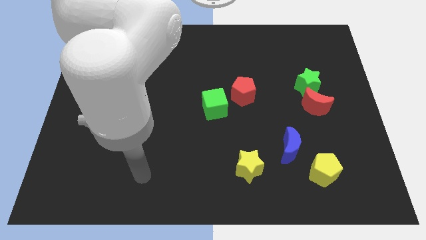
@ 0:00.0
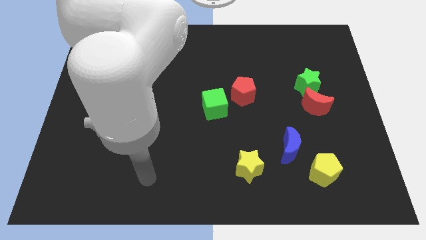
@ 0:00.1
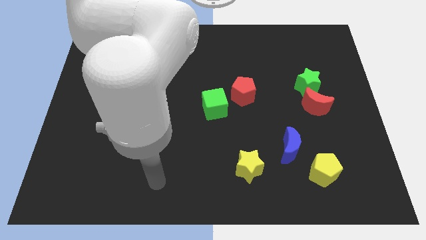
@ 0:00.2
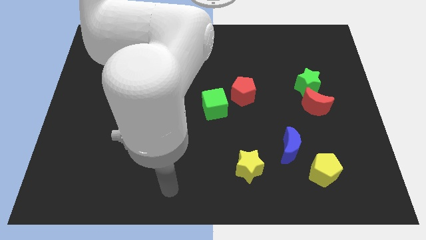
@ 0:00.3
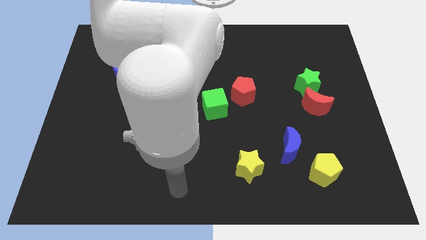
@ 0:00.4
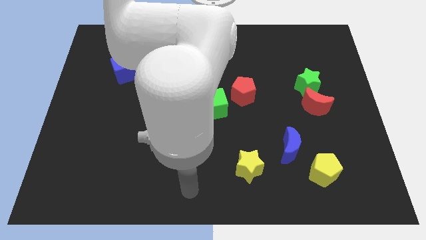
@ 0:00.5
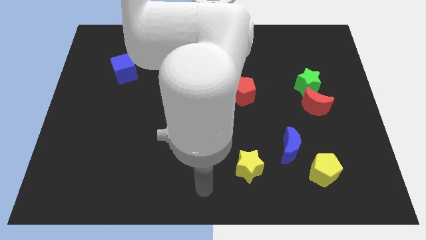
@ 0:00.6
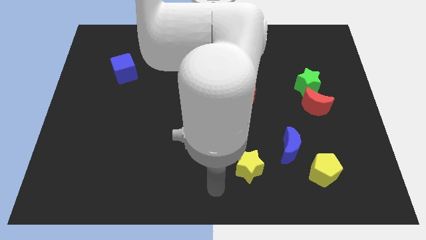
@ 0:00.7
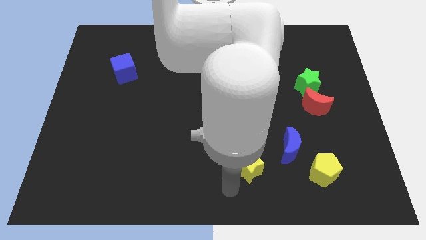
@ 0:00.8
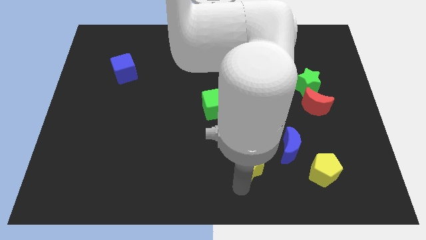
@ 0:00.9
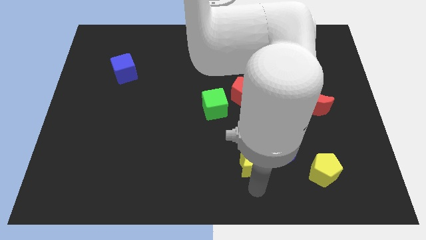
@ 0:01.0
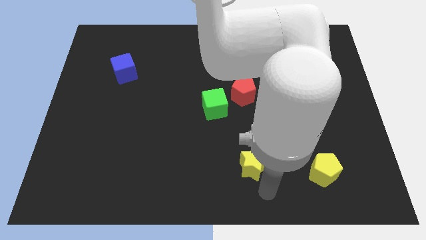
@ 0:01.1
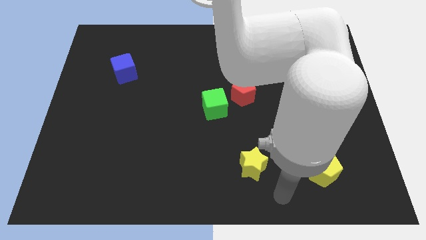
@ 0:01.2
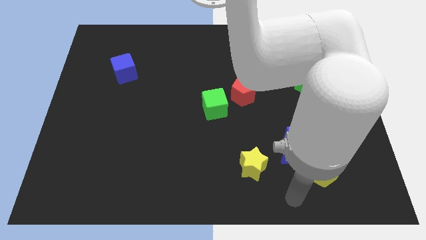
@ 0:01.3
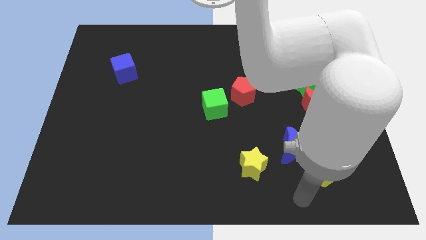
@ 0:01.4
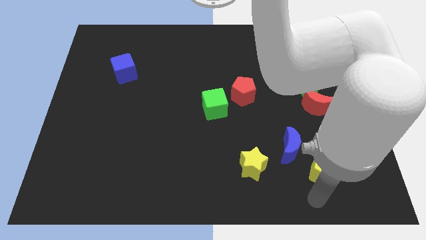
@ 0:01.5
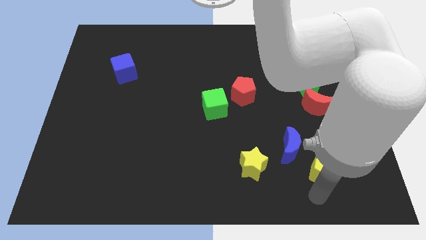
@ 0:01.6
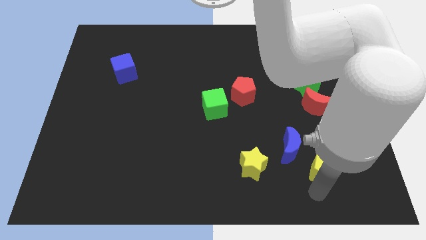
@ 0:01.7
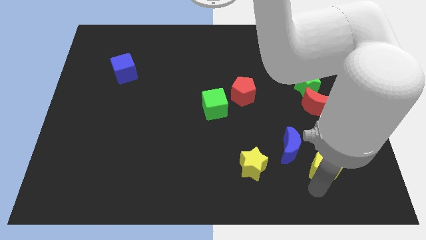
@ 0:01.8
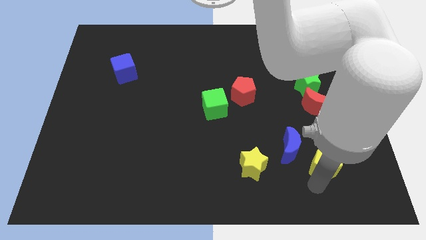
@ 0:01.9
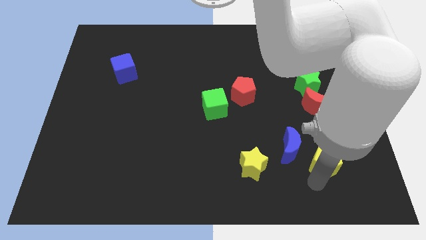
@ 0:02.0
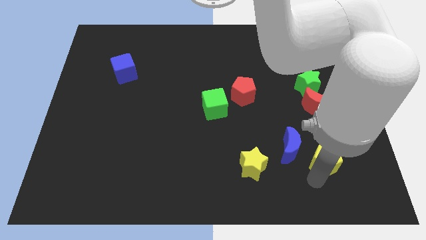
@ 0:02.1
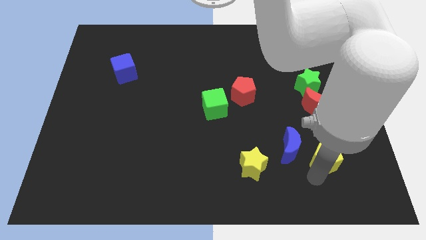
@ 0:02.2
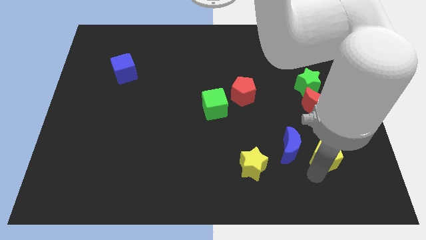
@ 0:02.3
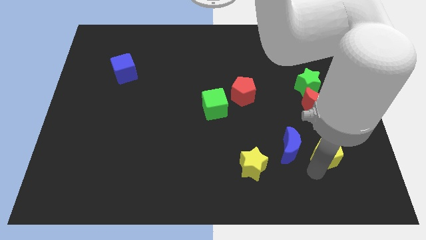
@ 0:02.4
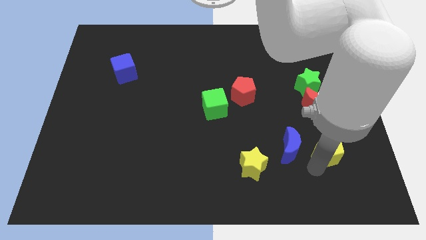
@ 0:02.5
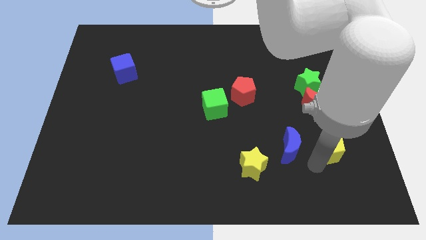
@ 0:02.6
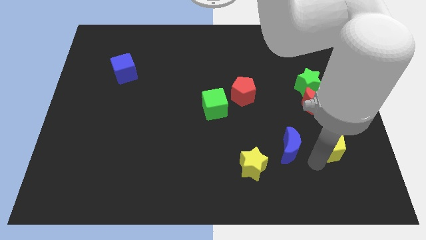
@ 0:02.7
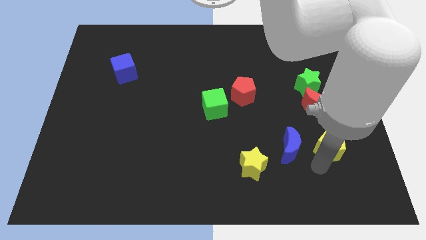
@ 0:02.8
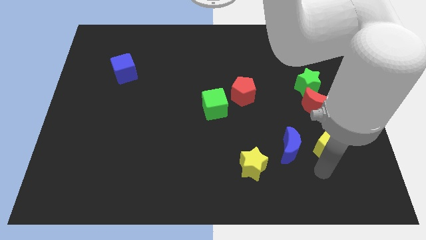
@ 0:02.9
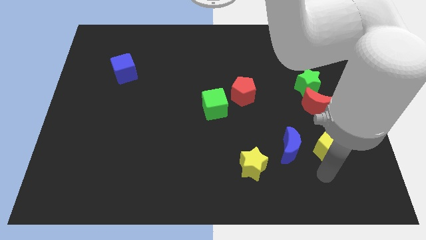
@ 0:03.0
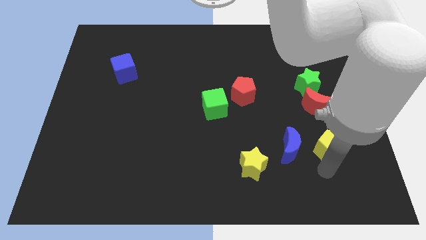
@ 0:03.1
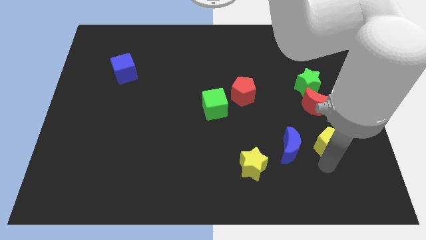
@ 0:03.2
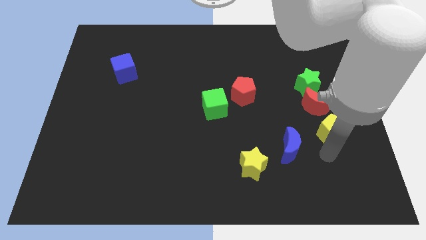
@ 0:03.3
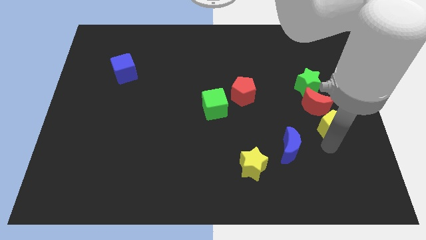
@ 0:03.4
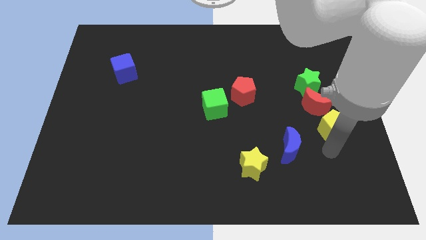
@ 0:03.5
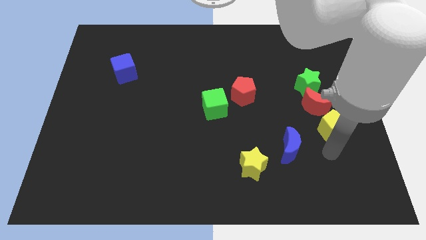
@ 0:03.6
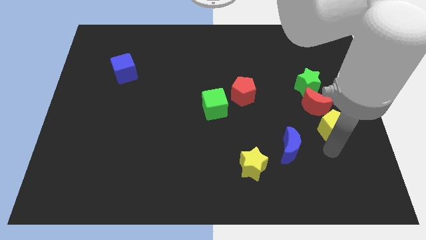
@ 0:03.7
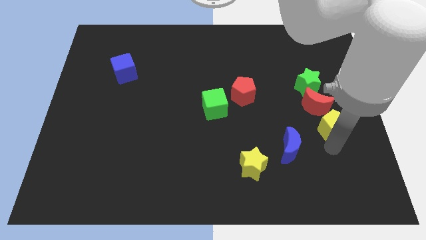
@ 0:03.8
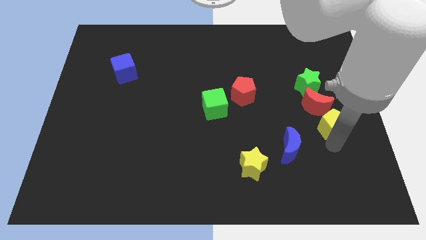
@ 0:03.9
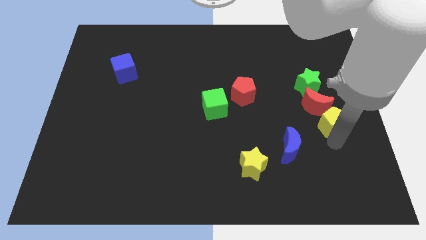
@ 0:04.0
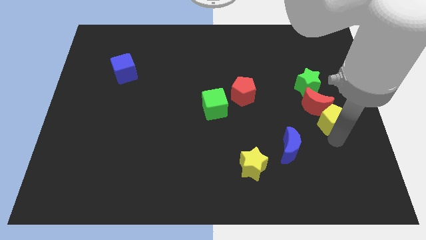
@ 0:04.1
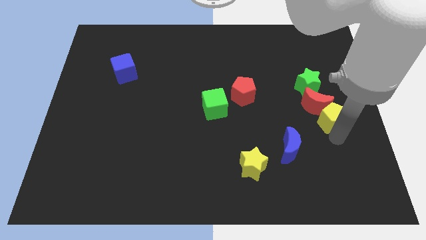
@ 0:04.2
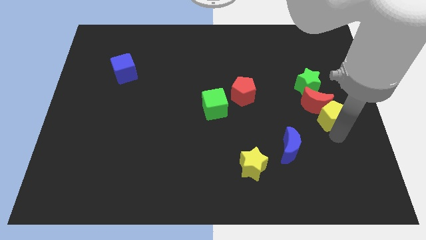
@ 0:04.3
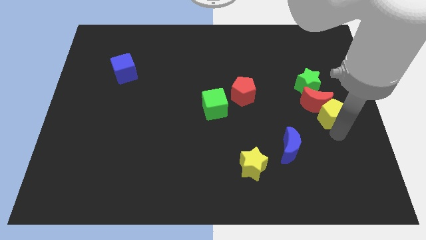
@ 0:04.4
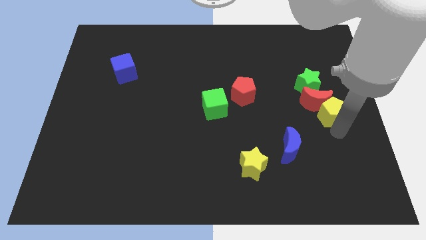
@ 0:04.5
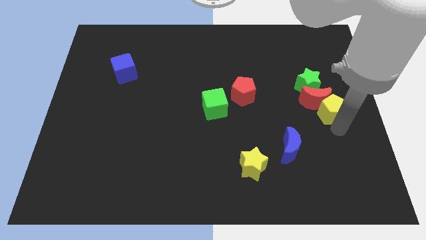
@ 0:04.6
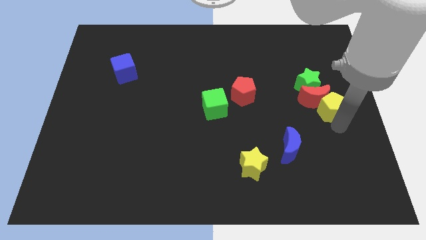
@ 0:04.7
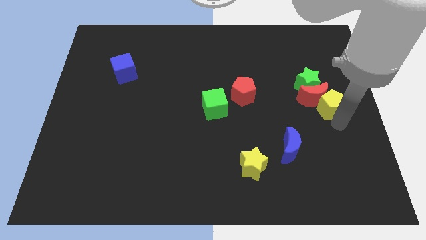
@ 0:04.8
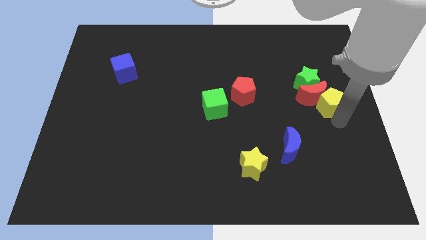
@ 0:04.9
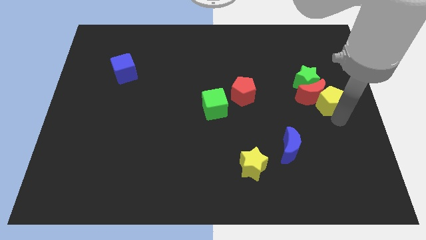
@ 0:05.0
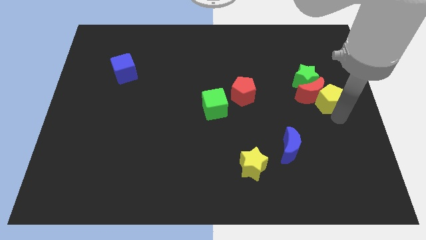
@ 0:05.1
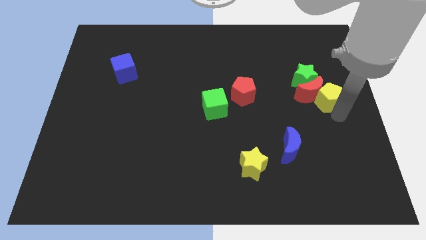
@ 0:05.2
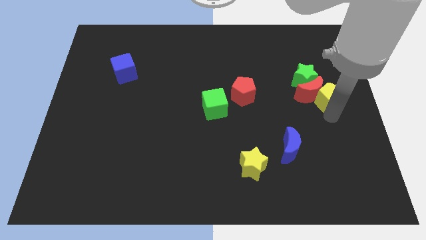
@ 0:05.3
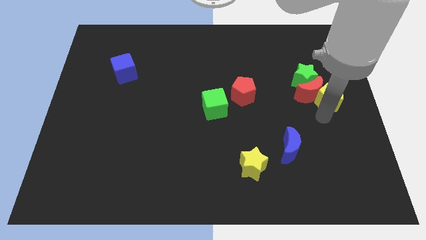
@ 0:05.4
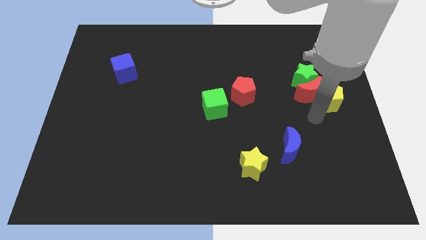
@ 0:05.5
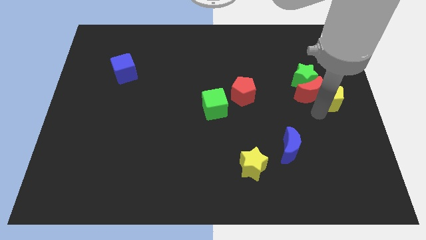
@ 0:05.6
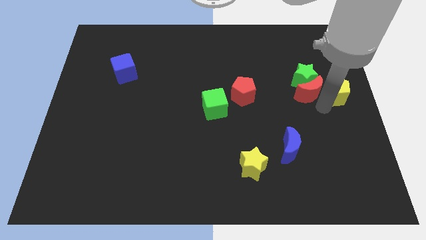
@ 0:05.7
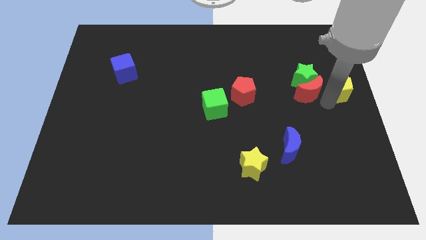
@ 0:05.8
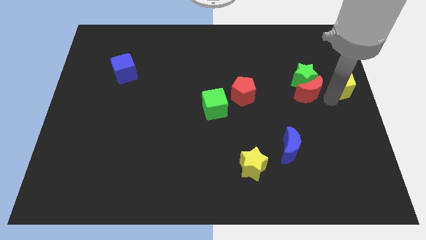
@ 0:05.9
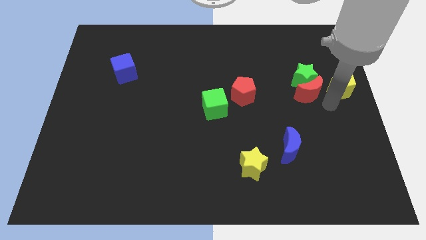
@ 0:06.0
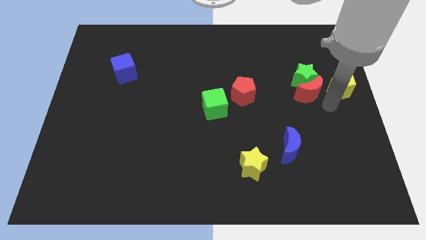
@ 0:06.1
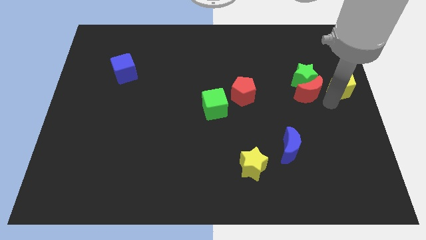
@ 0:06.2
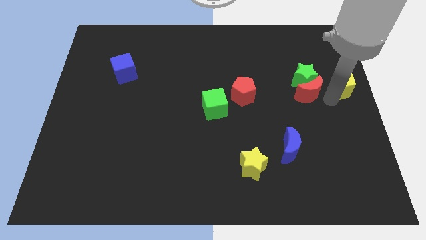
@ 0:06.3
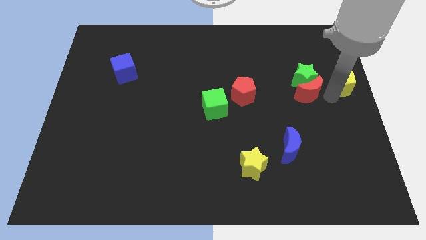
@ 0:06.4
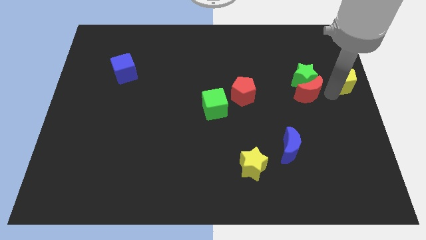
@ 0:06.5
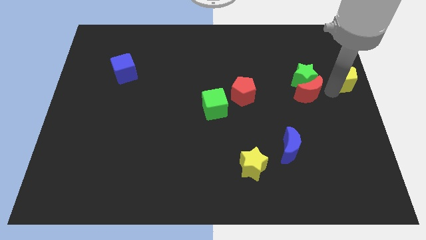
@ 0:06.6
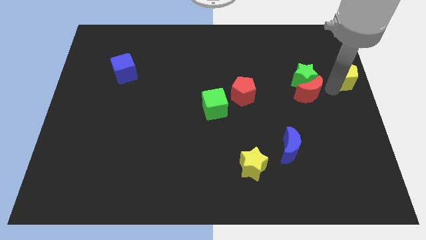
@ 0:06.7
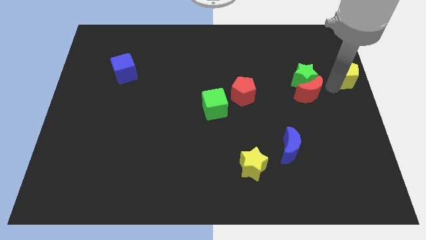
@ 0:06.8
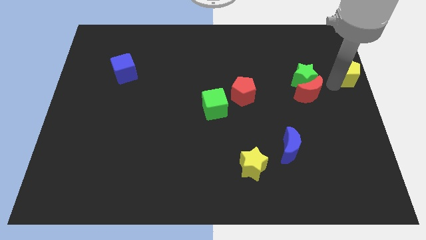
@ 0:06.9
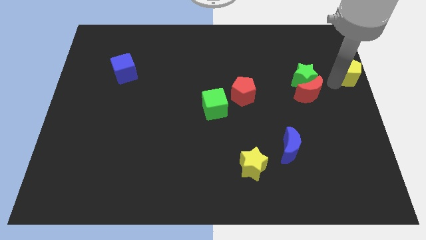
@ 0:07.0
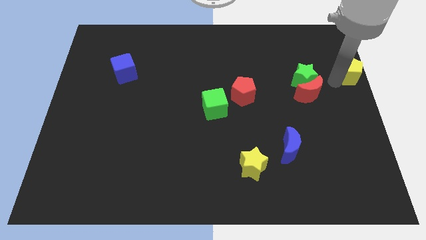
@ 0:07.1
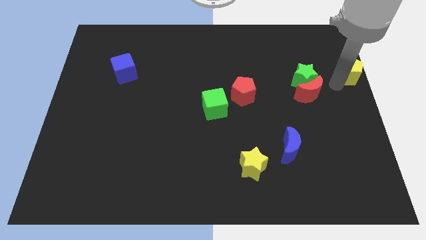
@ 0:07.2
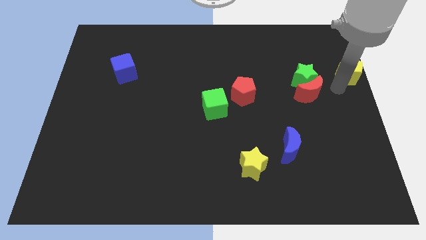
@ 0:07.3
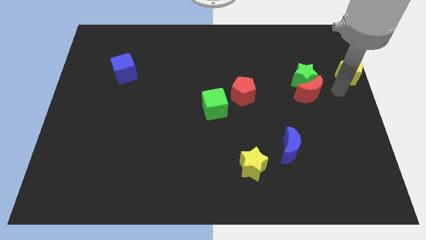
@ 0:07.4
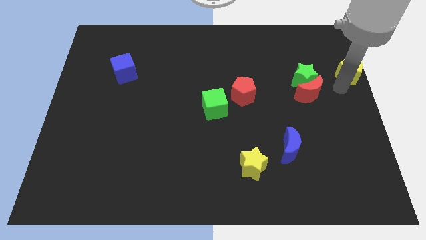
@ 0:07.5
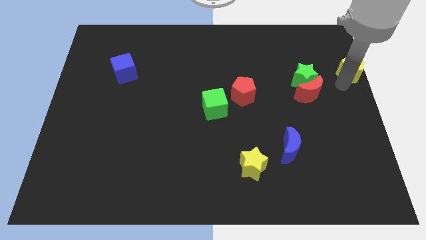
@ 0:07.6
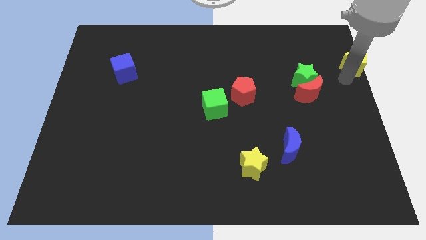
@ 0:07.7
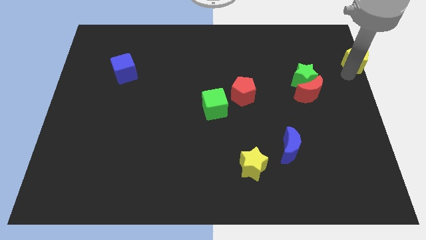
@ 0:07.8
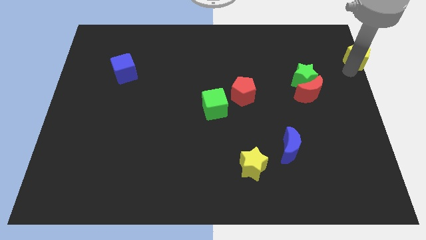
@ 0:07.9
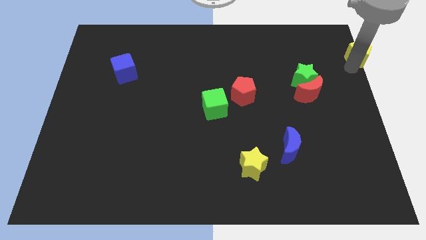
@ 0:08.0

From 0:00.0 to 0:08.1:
move the yellow pentagon to the top right of the board
